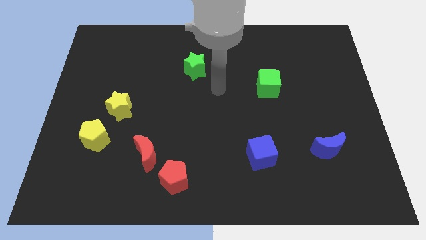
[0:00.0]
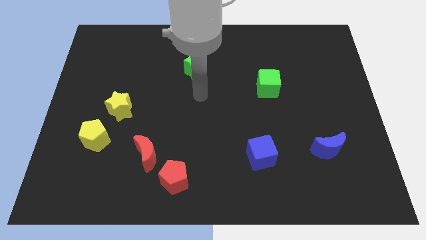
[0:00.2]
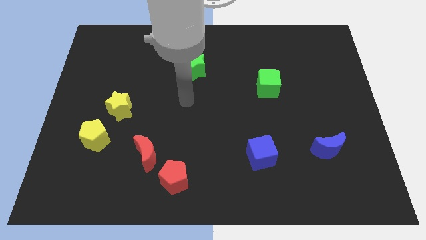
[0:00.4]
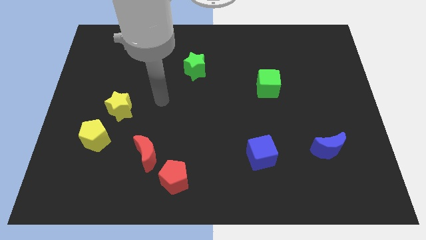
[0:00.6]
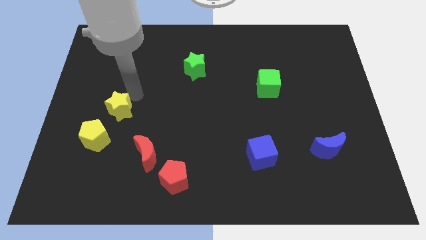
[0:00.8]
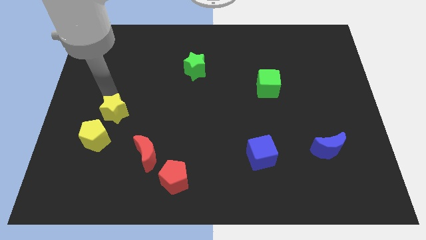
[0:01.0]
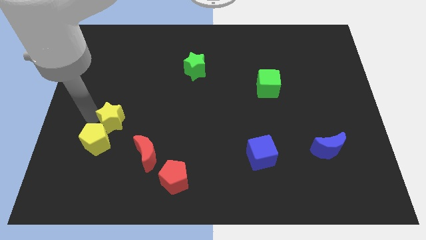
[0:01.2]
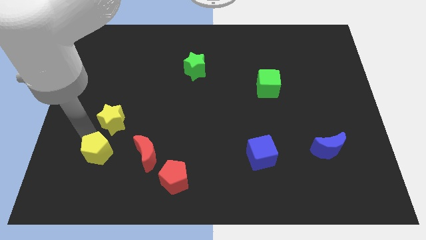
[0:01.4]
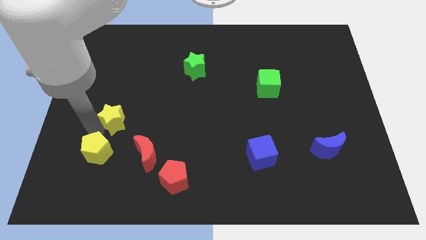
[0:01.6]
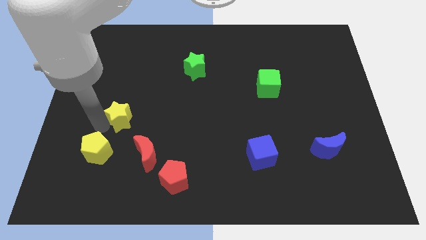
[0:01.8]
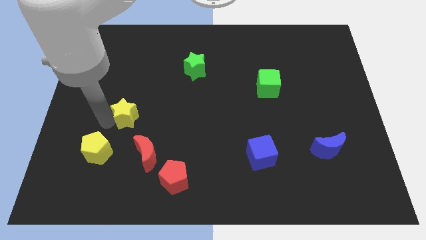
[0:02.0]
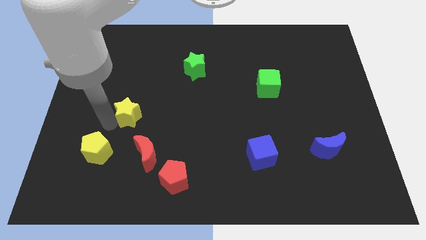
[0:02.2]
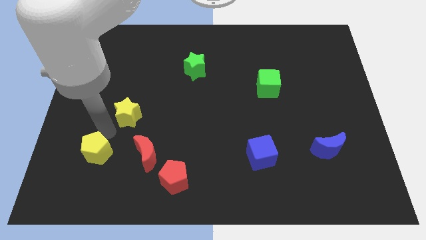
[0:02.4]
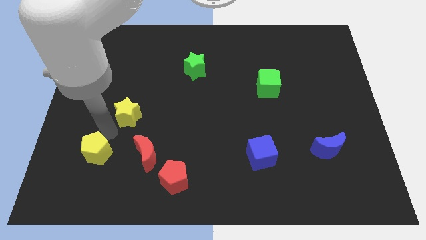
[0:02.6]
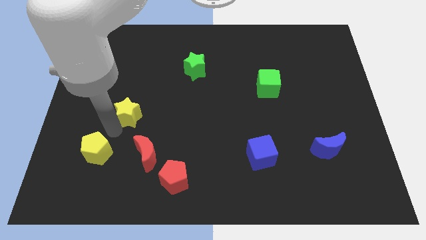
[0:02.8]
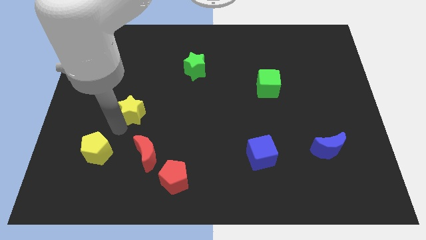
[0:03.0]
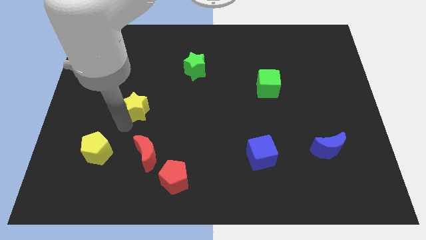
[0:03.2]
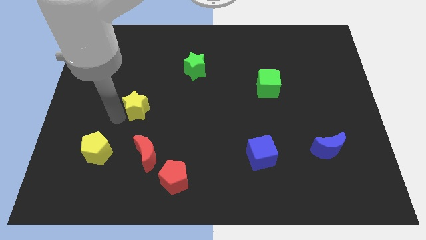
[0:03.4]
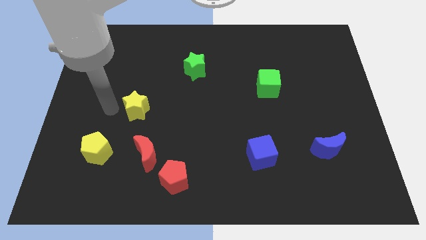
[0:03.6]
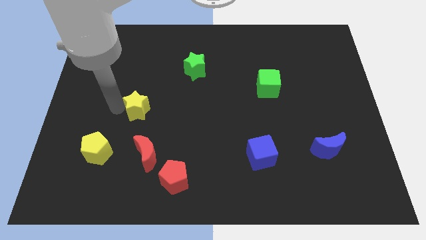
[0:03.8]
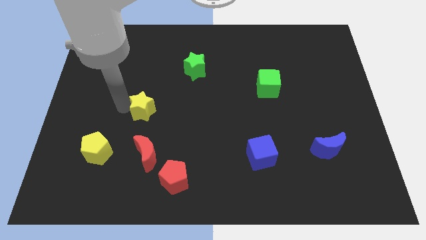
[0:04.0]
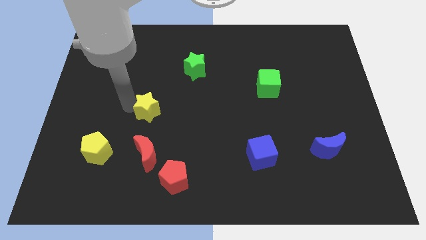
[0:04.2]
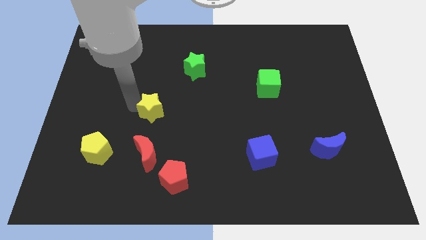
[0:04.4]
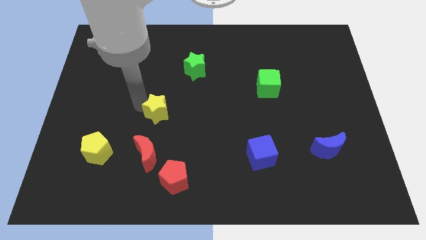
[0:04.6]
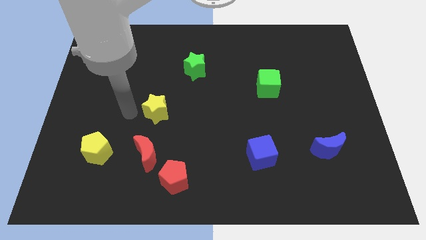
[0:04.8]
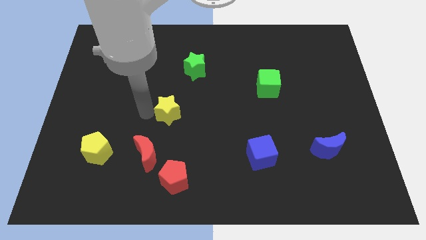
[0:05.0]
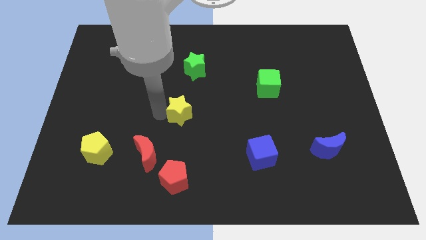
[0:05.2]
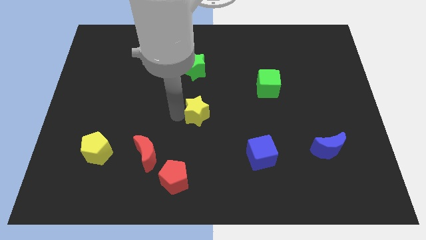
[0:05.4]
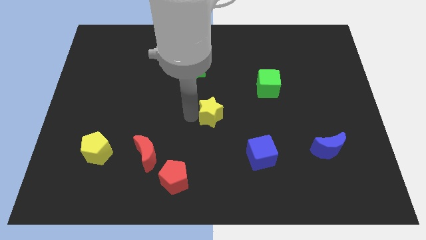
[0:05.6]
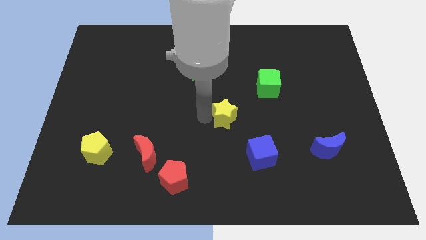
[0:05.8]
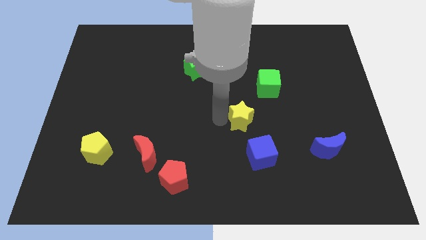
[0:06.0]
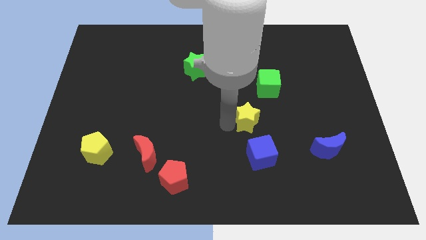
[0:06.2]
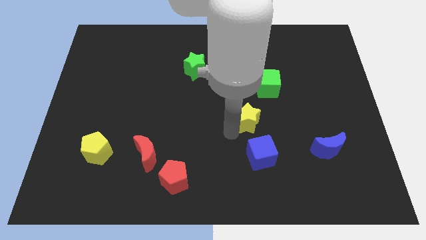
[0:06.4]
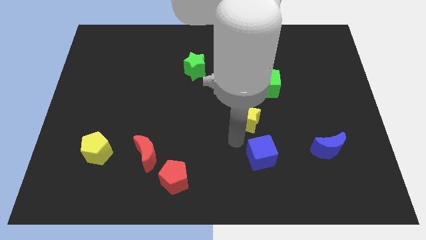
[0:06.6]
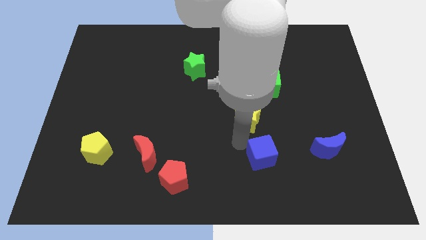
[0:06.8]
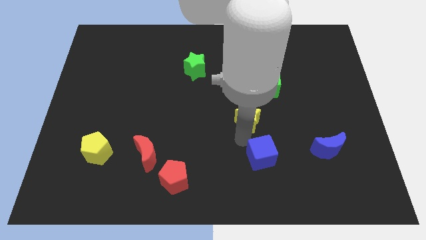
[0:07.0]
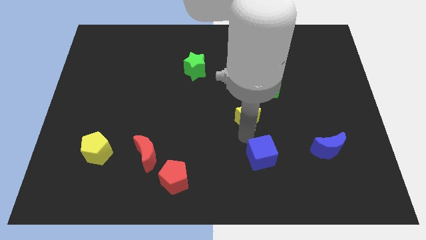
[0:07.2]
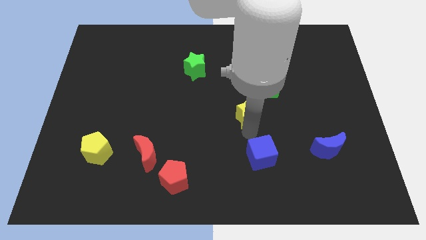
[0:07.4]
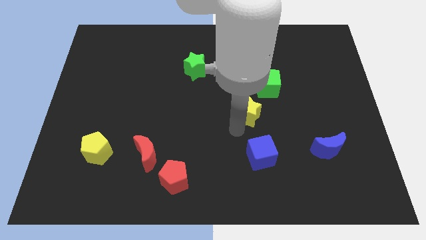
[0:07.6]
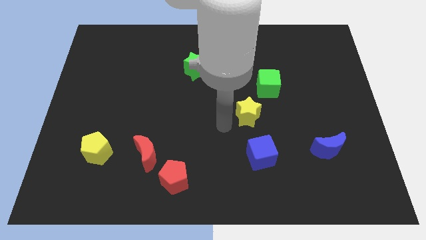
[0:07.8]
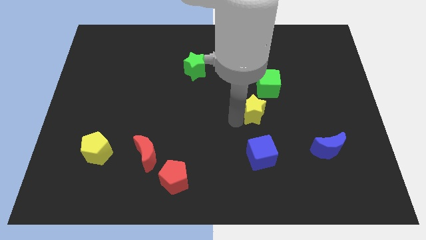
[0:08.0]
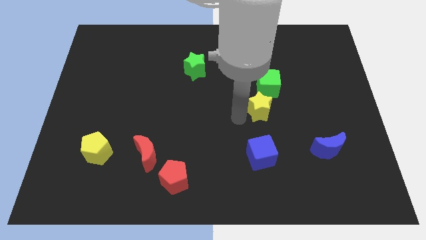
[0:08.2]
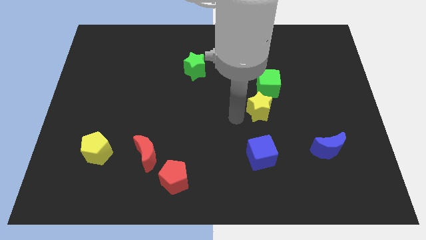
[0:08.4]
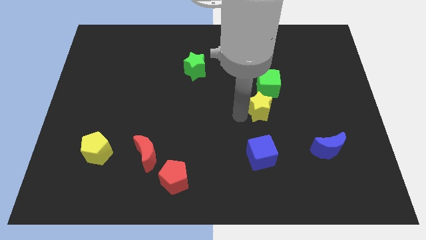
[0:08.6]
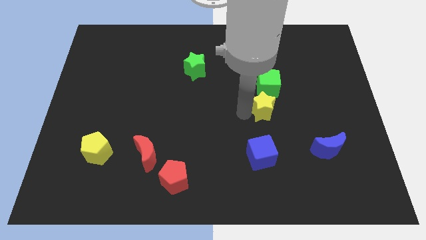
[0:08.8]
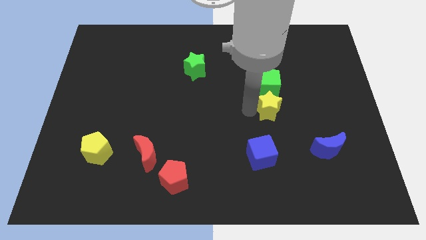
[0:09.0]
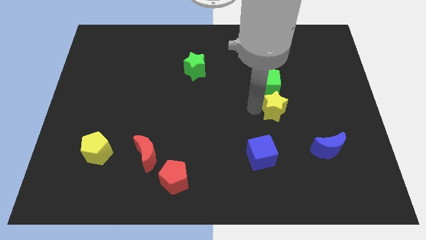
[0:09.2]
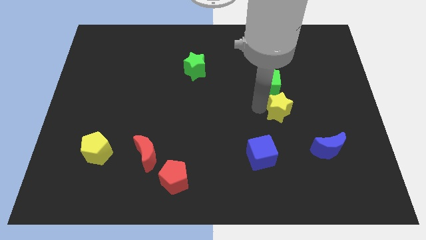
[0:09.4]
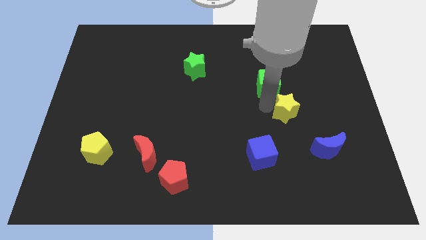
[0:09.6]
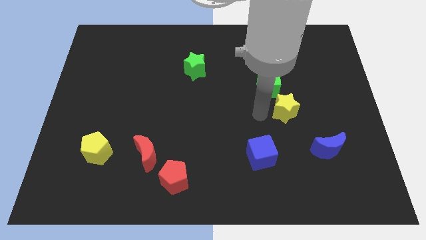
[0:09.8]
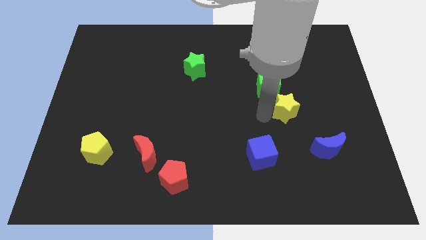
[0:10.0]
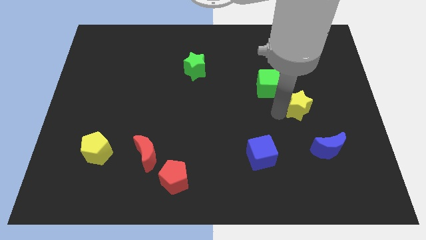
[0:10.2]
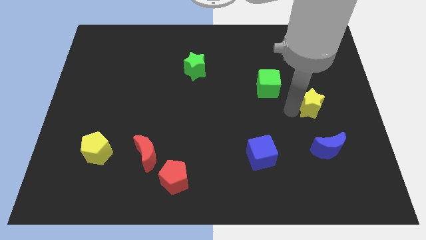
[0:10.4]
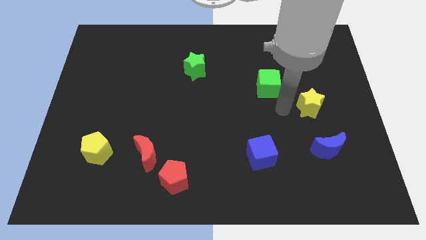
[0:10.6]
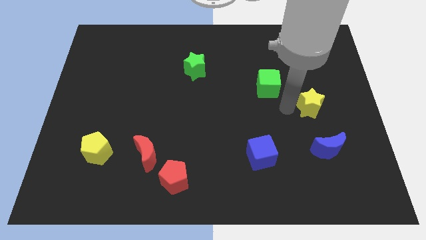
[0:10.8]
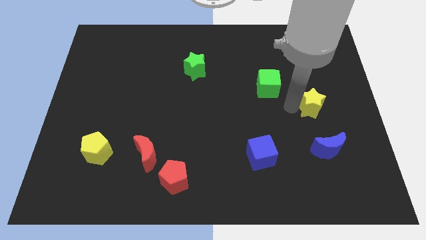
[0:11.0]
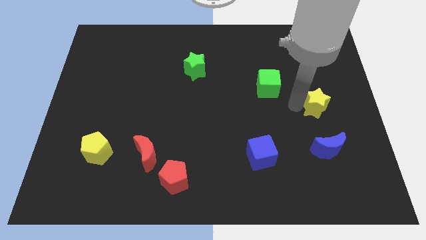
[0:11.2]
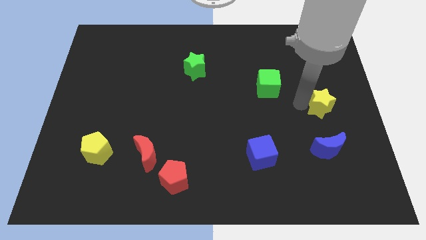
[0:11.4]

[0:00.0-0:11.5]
slide the yellow star to the center right

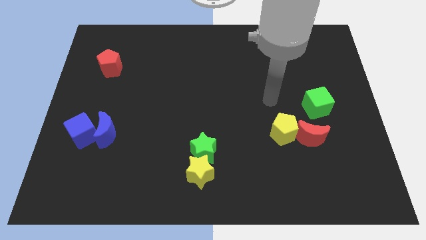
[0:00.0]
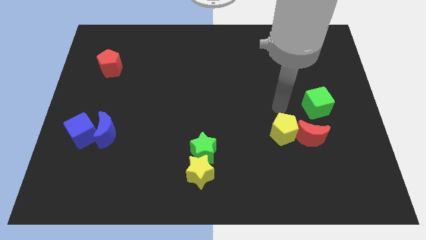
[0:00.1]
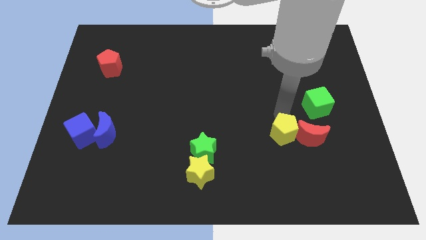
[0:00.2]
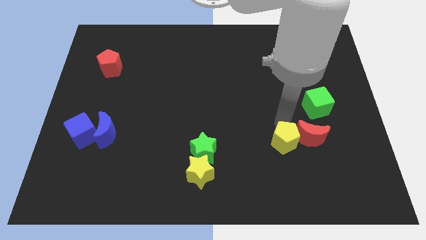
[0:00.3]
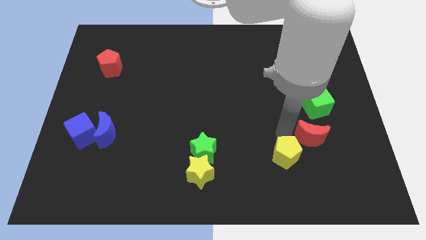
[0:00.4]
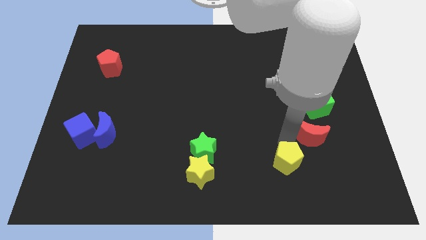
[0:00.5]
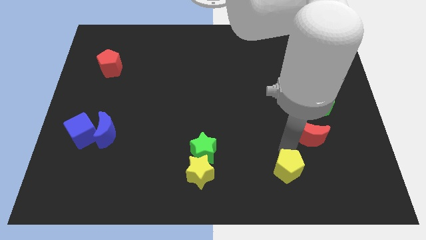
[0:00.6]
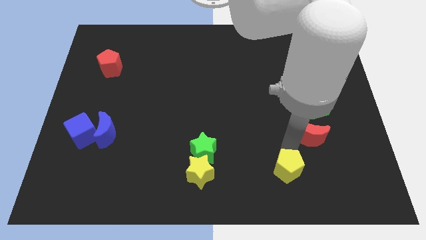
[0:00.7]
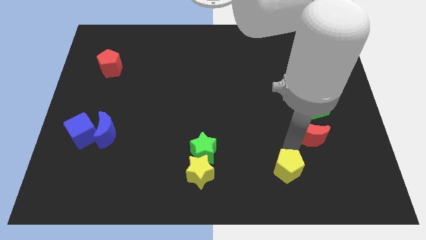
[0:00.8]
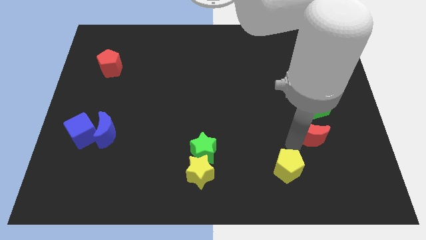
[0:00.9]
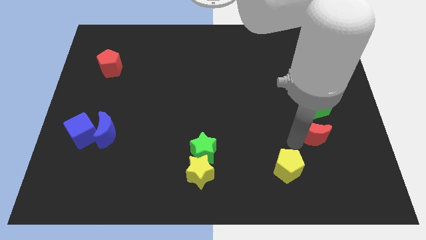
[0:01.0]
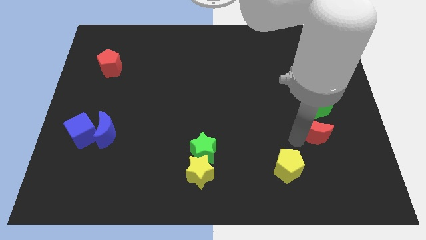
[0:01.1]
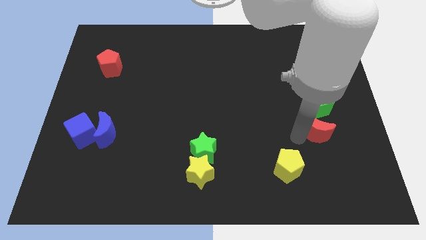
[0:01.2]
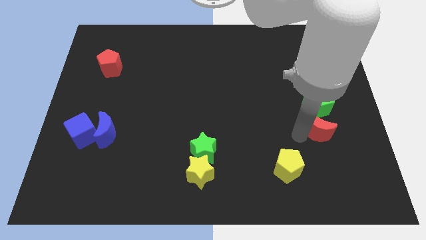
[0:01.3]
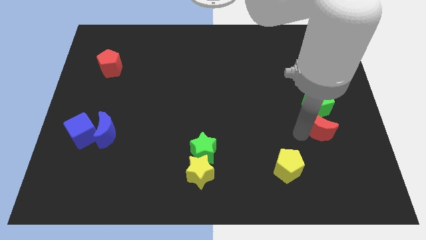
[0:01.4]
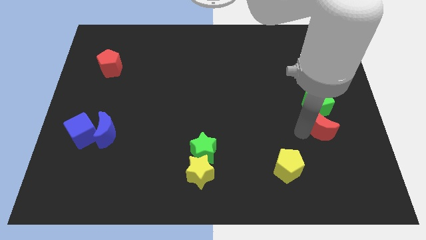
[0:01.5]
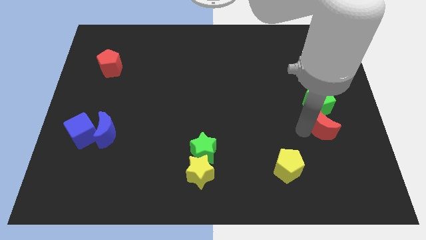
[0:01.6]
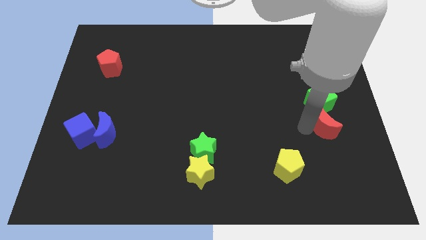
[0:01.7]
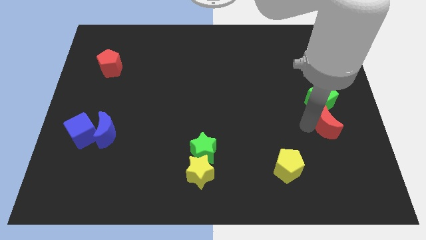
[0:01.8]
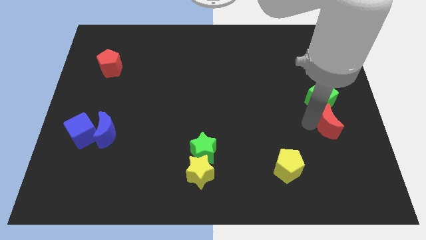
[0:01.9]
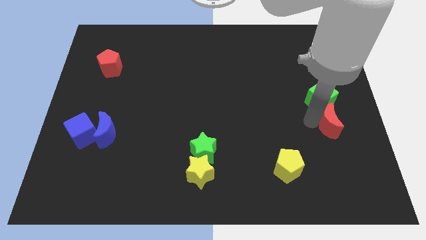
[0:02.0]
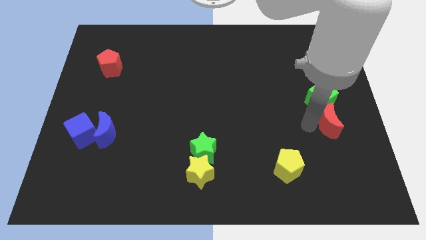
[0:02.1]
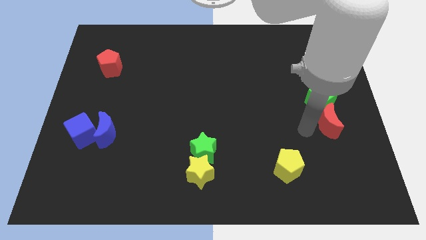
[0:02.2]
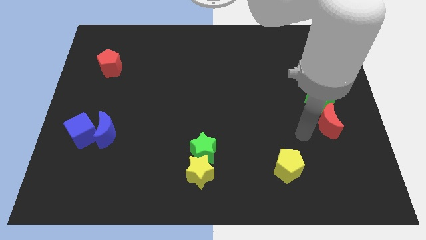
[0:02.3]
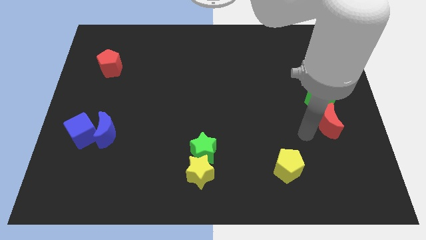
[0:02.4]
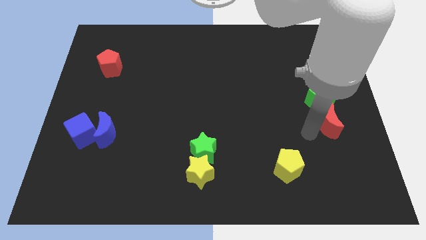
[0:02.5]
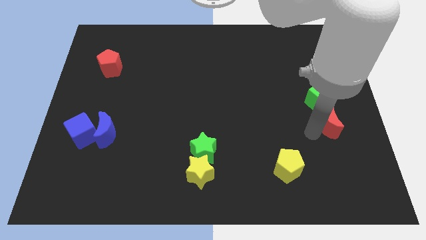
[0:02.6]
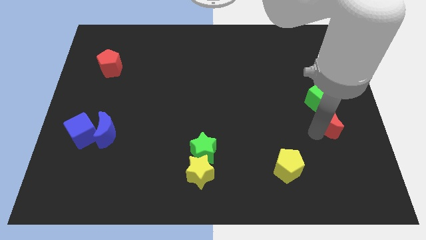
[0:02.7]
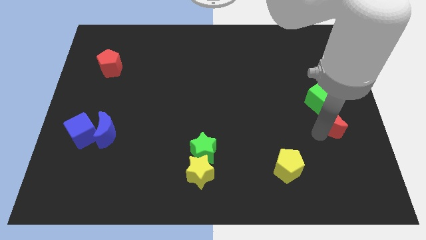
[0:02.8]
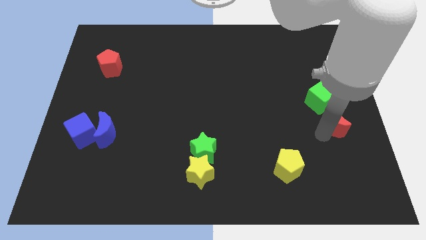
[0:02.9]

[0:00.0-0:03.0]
put the red moon to the center right
